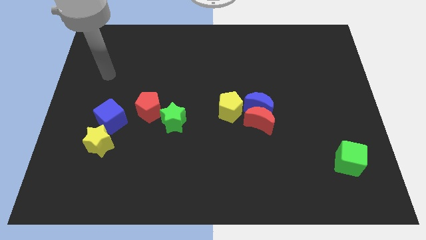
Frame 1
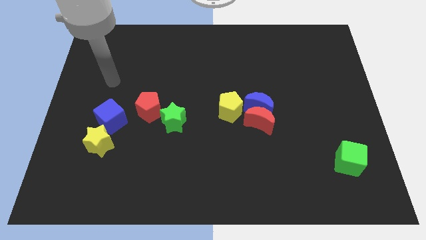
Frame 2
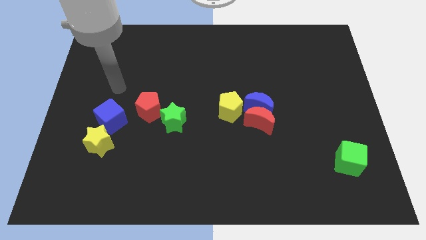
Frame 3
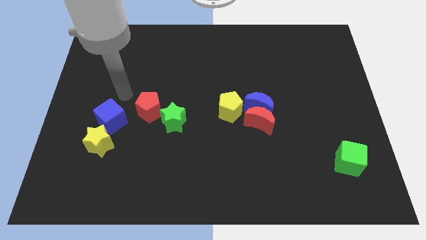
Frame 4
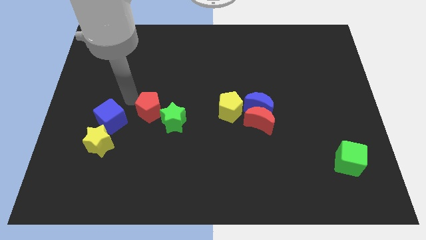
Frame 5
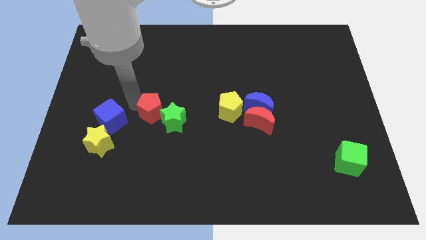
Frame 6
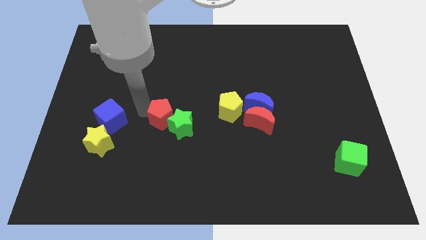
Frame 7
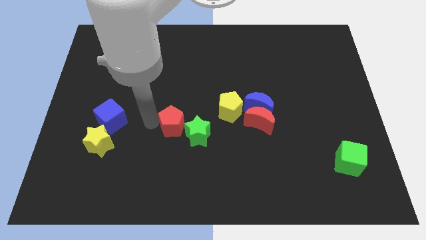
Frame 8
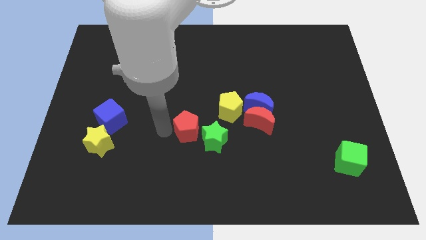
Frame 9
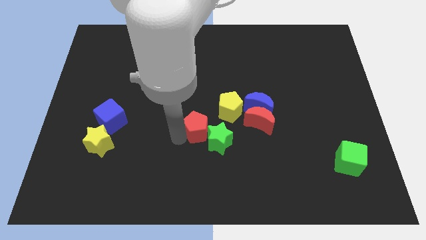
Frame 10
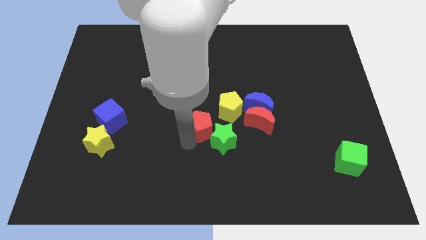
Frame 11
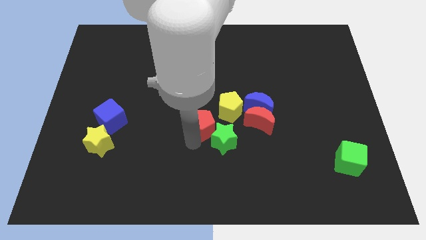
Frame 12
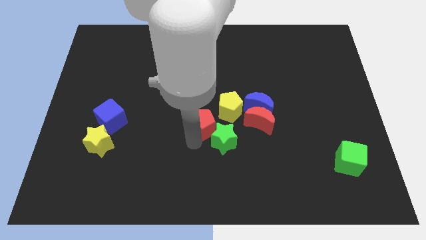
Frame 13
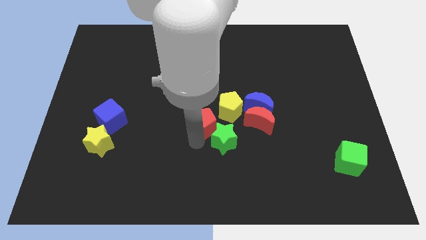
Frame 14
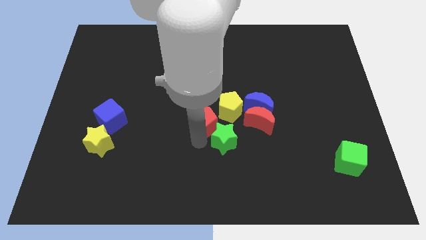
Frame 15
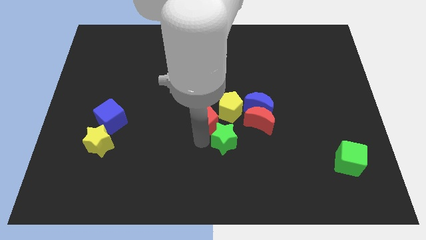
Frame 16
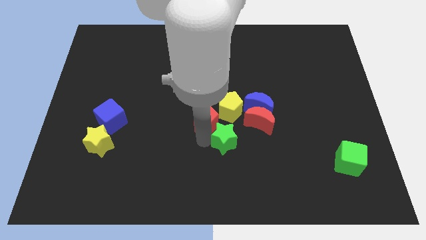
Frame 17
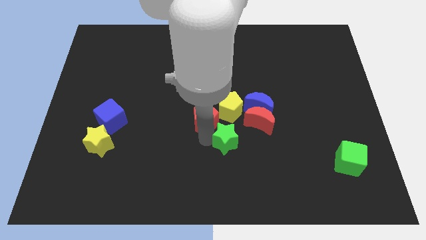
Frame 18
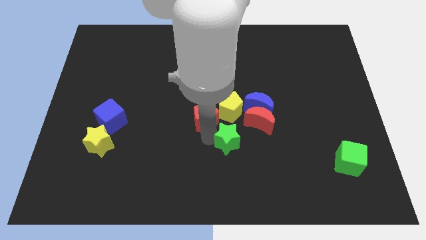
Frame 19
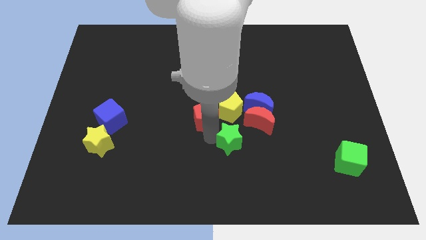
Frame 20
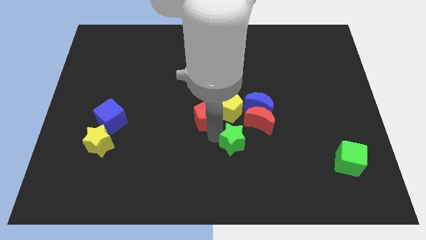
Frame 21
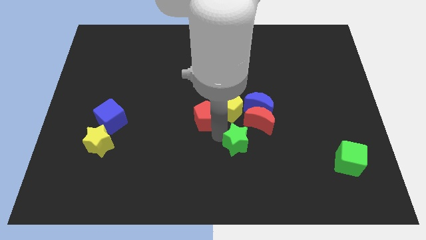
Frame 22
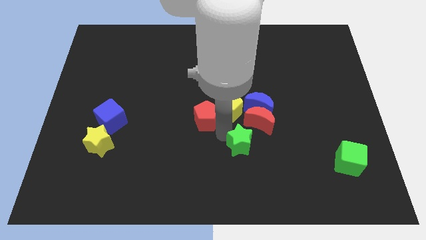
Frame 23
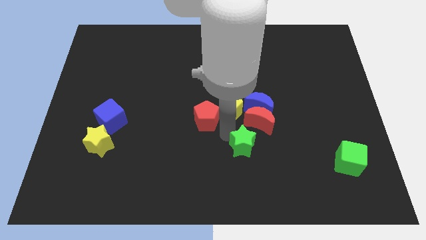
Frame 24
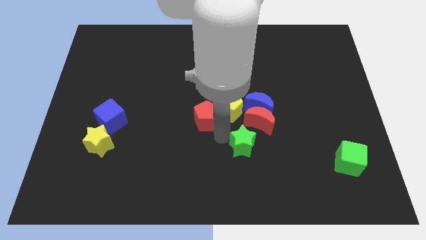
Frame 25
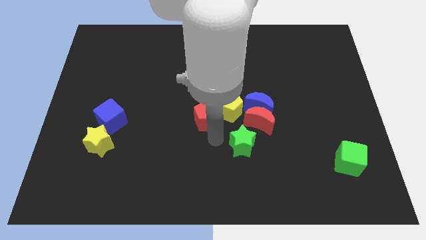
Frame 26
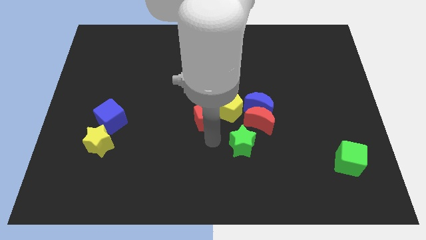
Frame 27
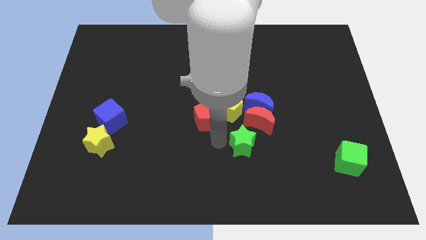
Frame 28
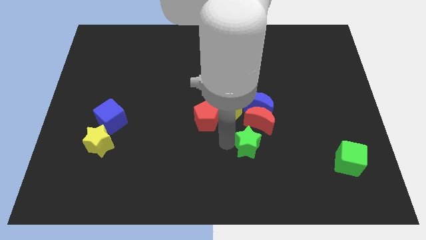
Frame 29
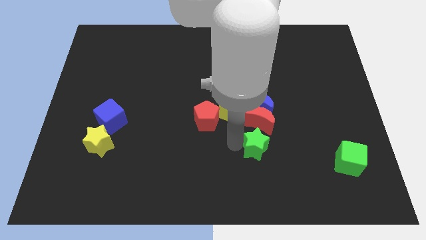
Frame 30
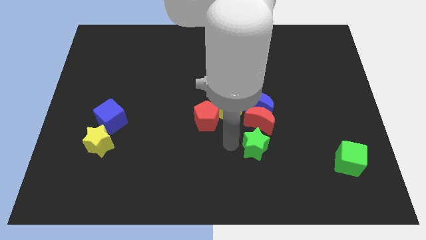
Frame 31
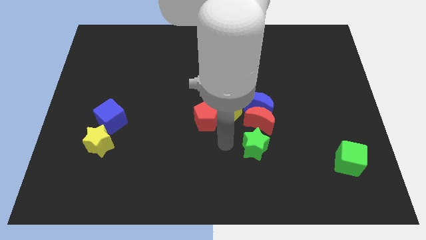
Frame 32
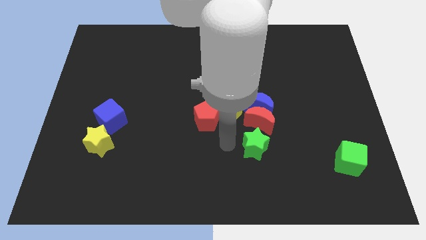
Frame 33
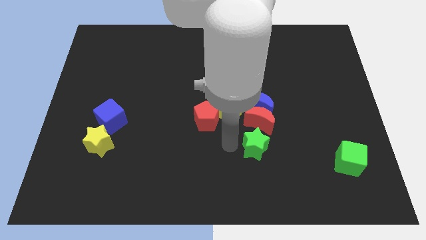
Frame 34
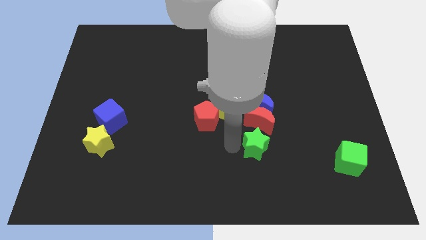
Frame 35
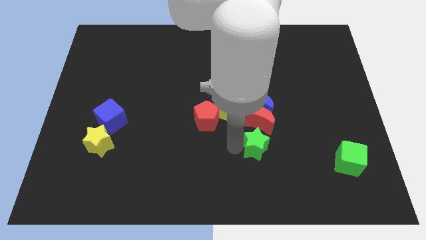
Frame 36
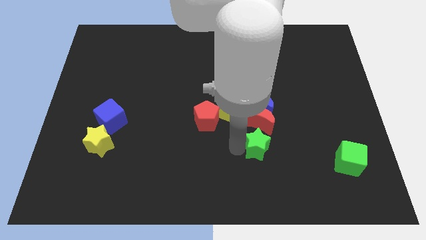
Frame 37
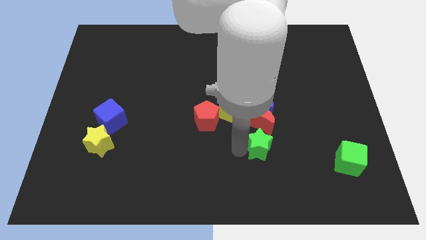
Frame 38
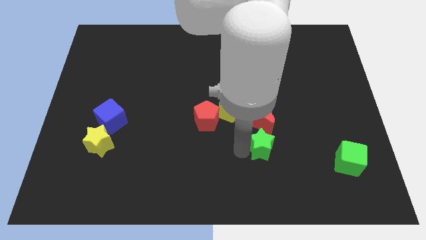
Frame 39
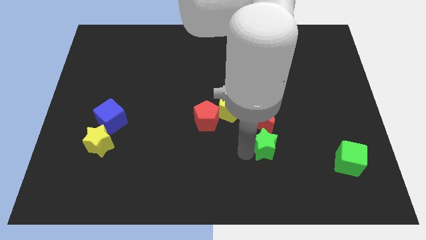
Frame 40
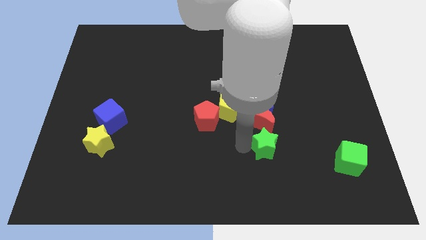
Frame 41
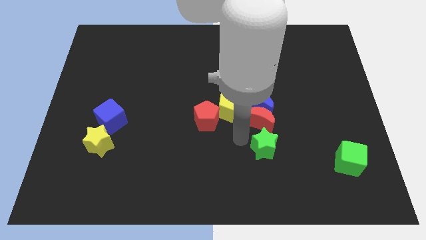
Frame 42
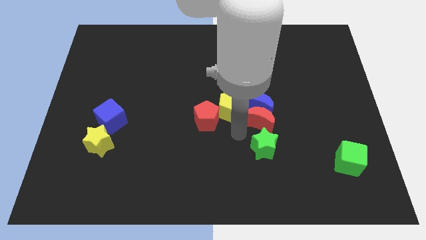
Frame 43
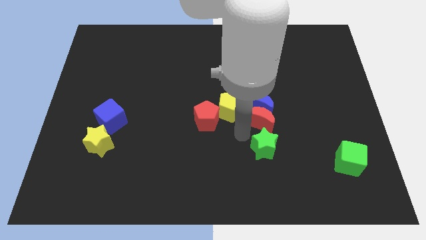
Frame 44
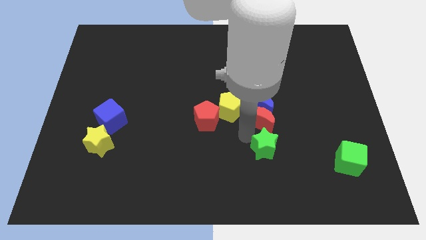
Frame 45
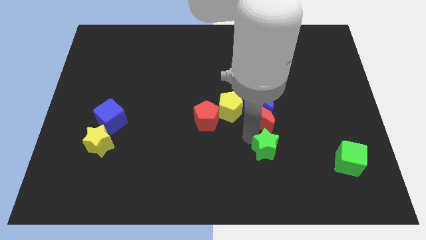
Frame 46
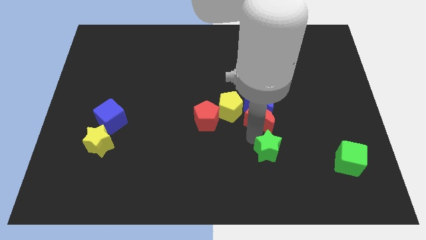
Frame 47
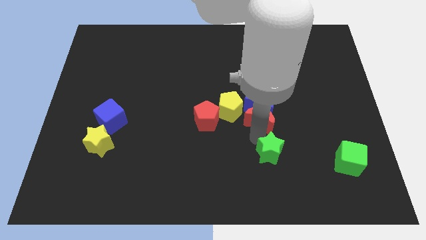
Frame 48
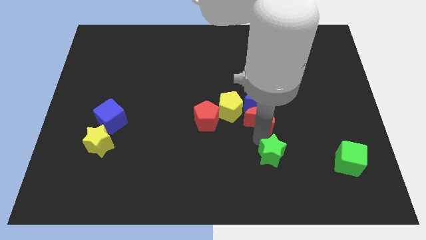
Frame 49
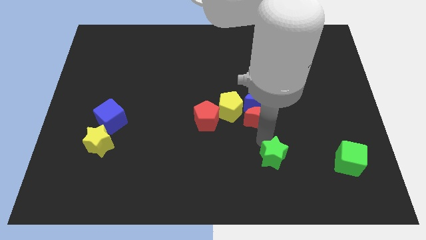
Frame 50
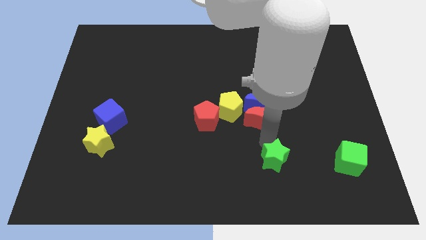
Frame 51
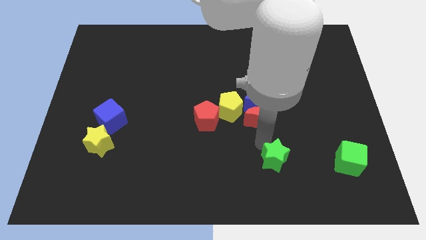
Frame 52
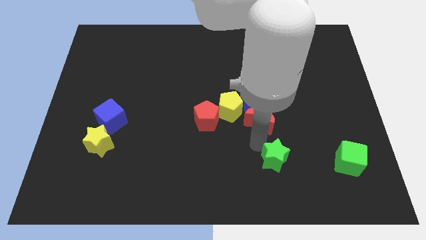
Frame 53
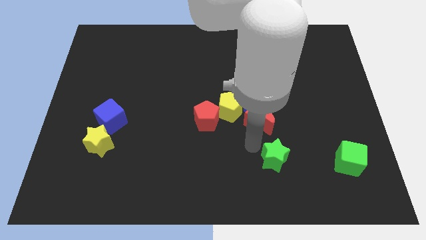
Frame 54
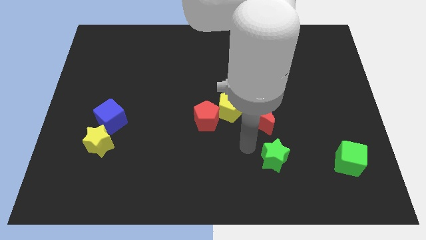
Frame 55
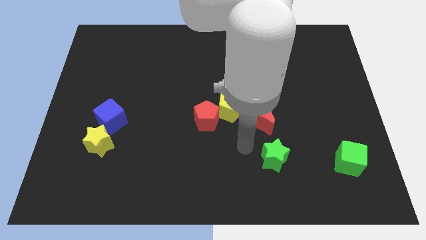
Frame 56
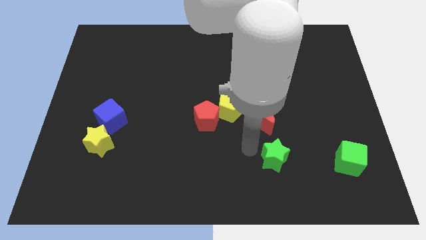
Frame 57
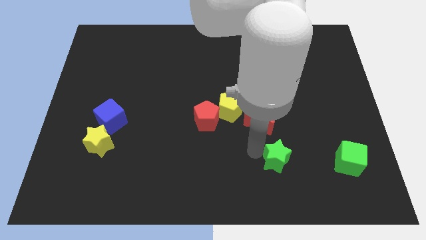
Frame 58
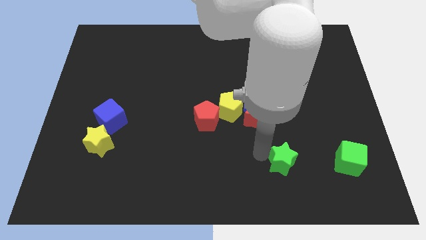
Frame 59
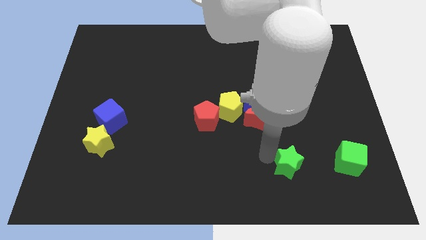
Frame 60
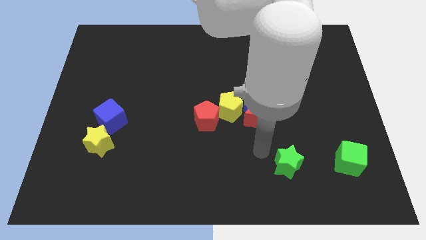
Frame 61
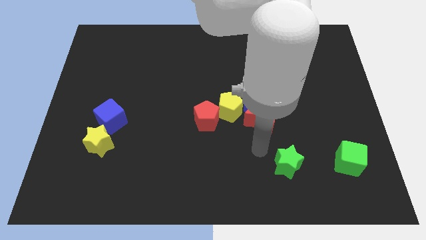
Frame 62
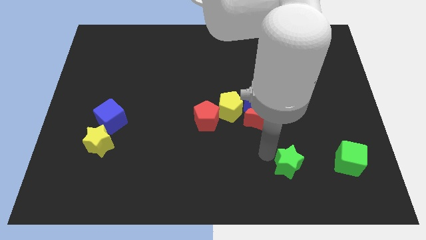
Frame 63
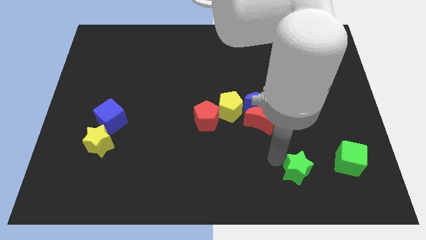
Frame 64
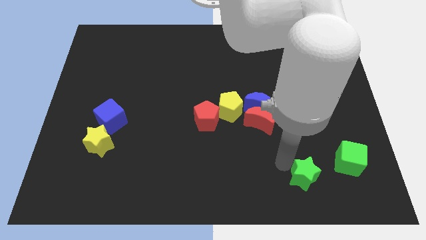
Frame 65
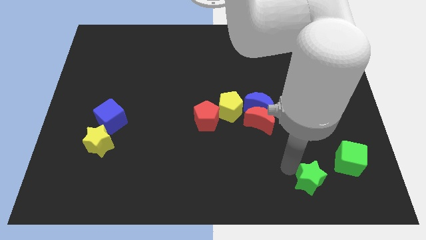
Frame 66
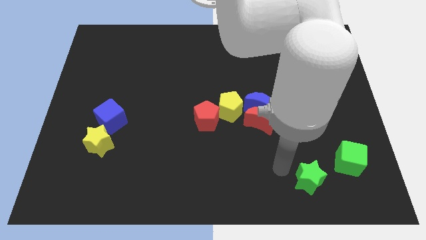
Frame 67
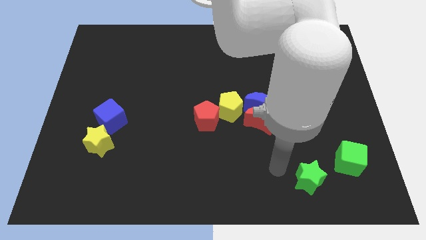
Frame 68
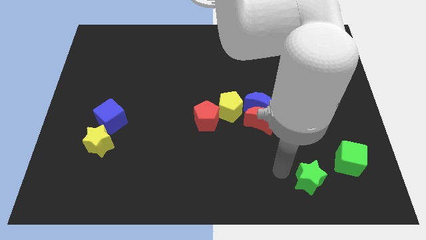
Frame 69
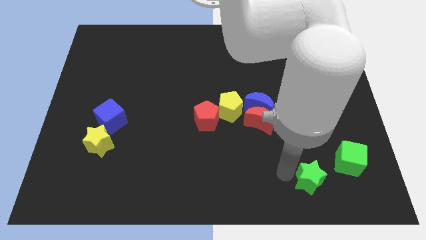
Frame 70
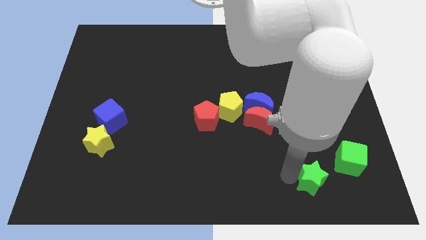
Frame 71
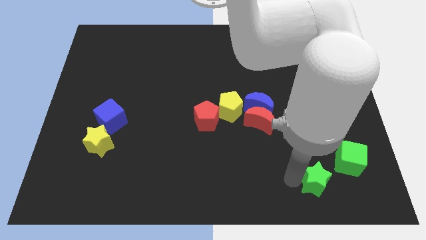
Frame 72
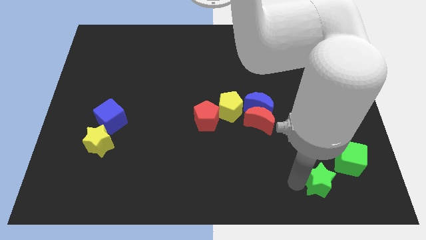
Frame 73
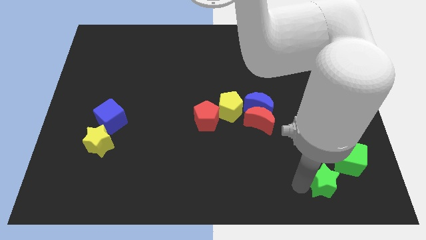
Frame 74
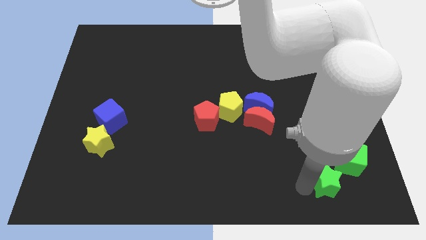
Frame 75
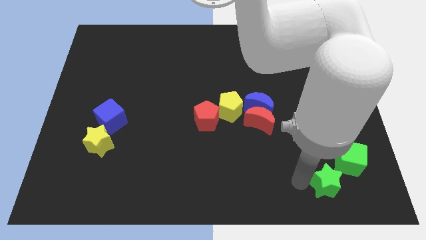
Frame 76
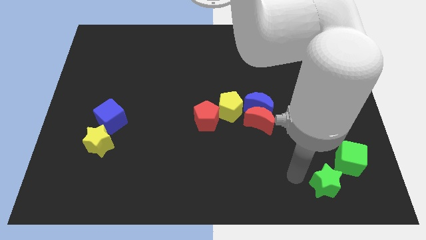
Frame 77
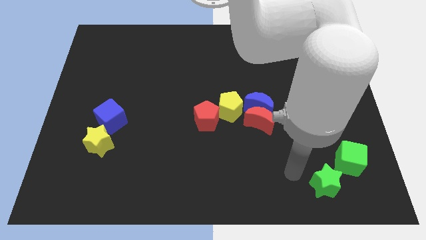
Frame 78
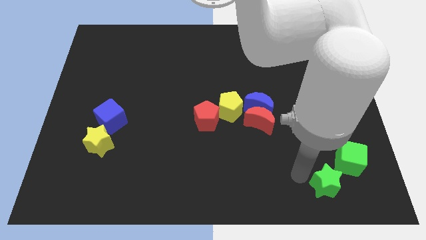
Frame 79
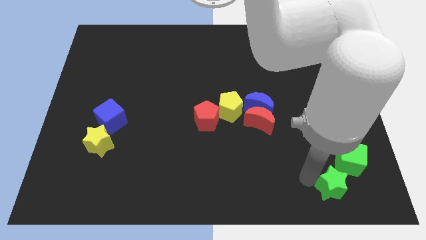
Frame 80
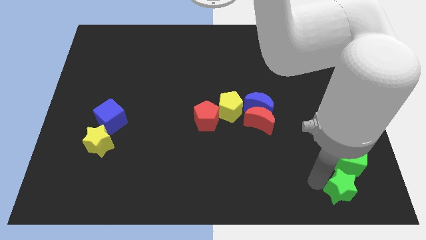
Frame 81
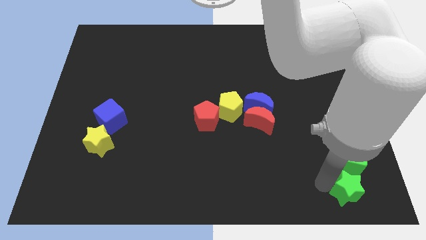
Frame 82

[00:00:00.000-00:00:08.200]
put the green star to the lower right corner
